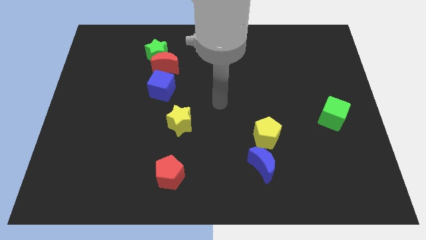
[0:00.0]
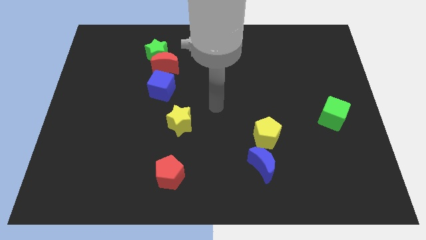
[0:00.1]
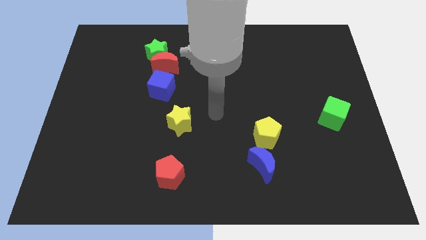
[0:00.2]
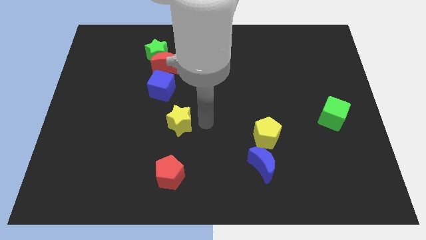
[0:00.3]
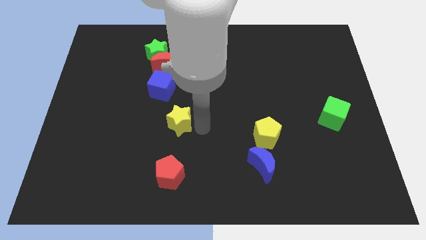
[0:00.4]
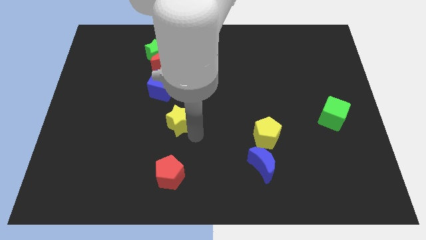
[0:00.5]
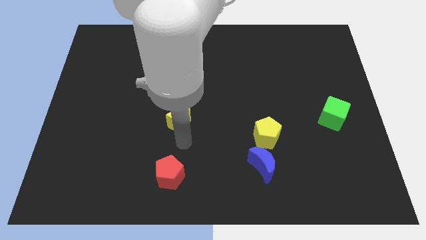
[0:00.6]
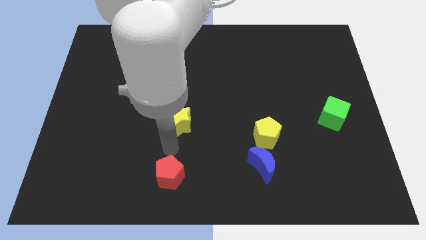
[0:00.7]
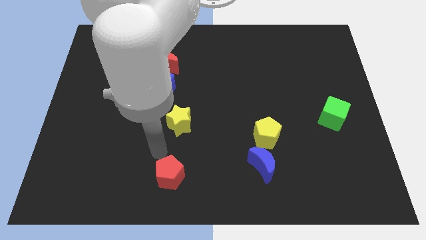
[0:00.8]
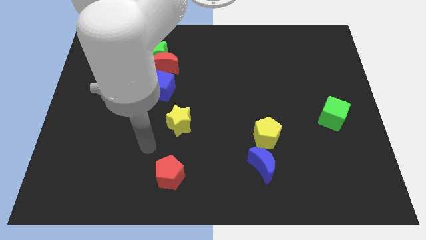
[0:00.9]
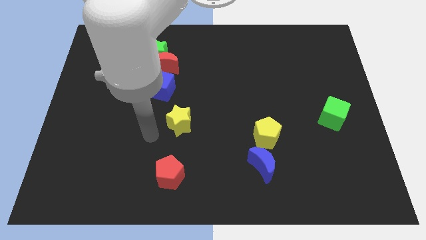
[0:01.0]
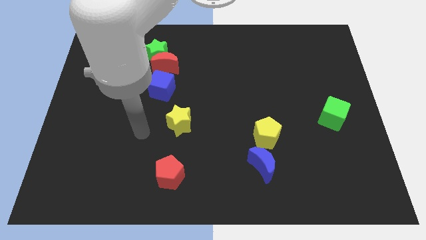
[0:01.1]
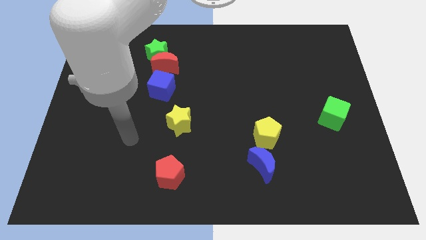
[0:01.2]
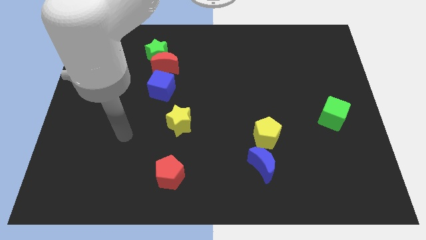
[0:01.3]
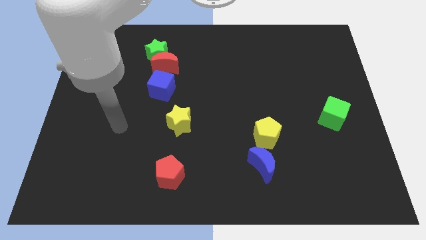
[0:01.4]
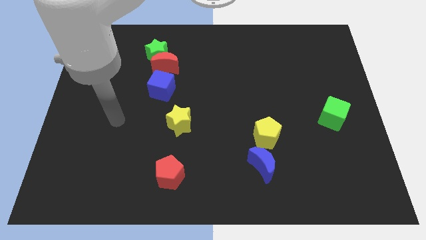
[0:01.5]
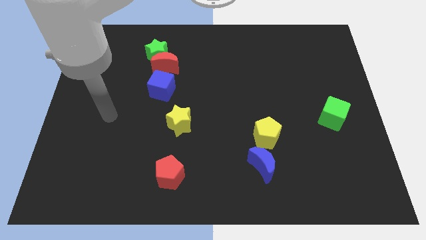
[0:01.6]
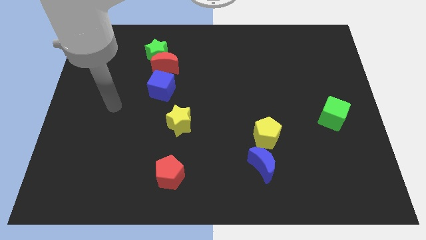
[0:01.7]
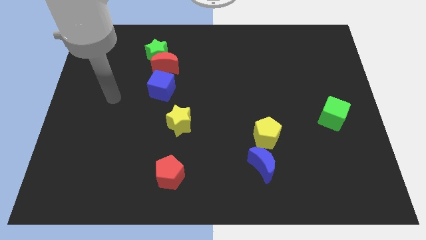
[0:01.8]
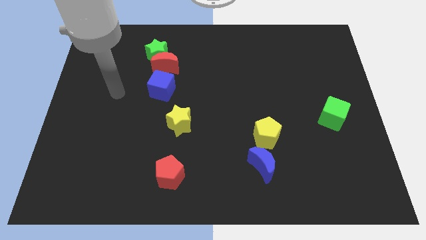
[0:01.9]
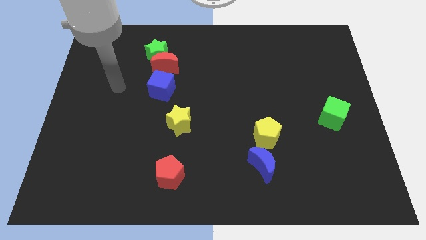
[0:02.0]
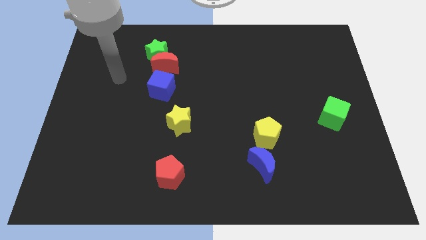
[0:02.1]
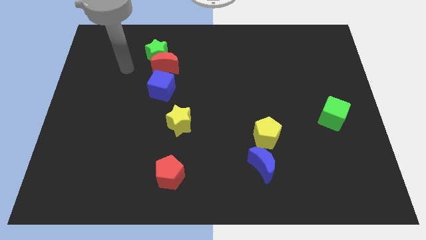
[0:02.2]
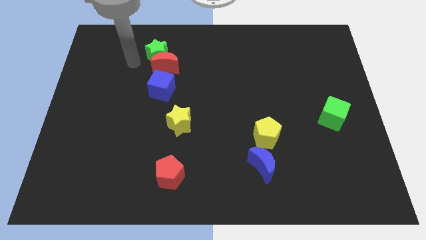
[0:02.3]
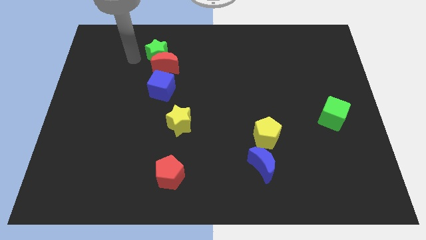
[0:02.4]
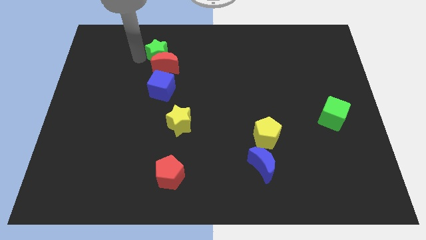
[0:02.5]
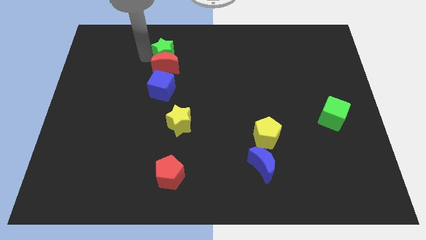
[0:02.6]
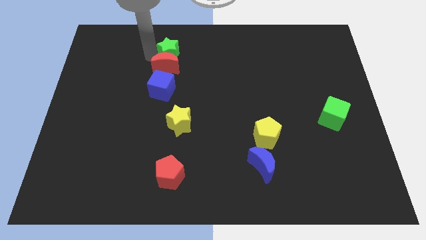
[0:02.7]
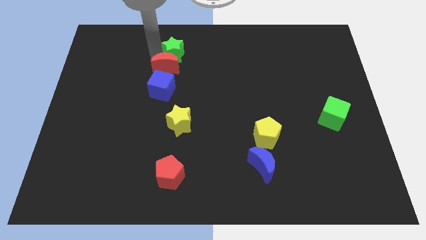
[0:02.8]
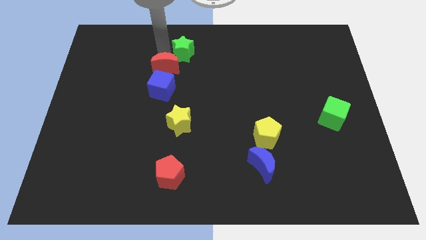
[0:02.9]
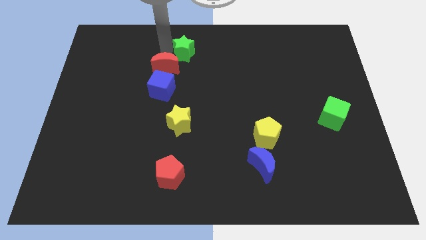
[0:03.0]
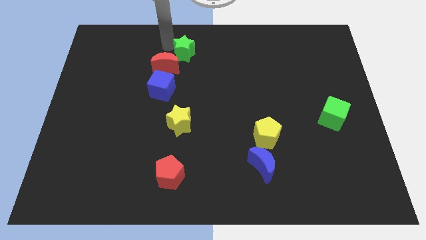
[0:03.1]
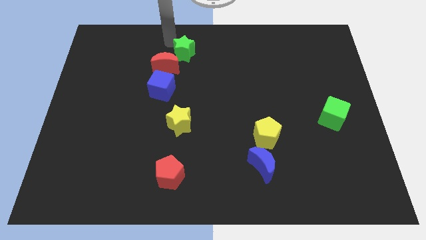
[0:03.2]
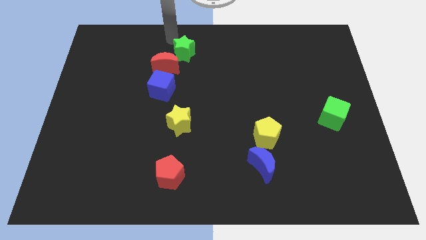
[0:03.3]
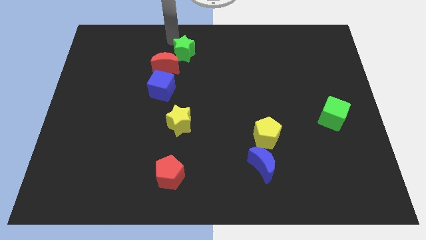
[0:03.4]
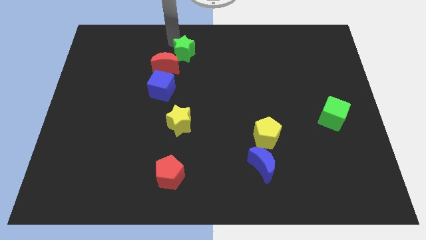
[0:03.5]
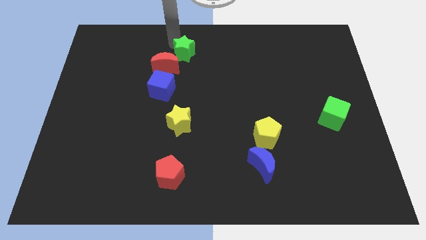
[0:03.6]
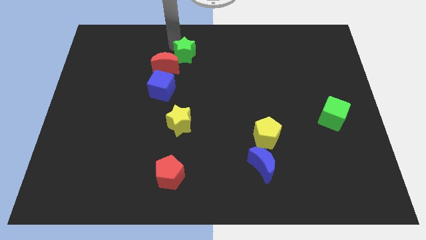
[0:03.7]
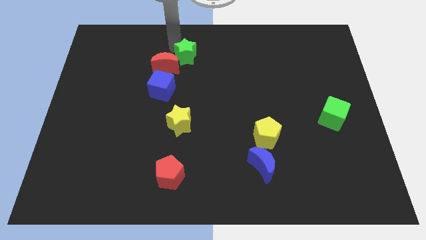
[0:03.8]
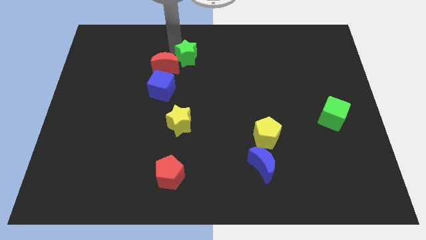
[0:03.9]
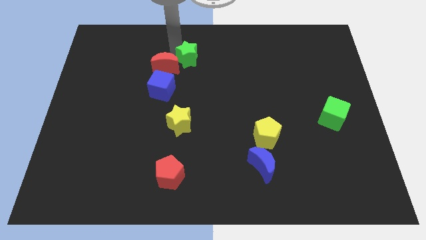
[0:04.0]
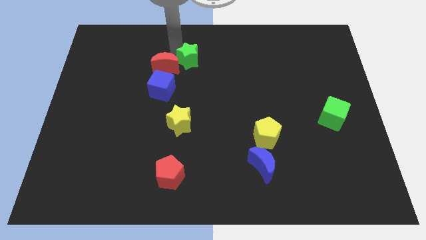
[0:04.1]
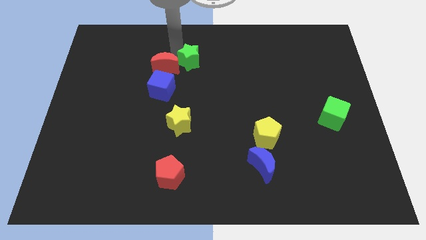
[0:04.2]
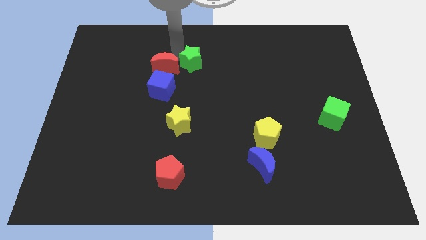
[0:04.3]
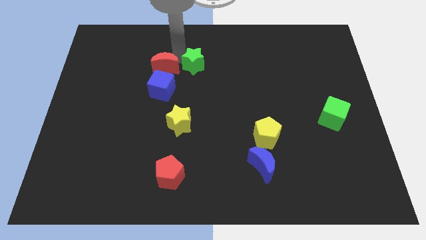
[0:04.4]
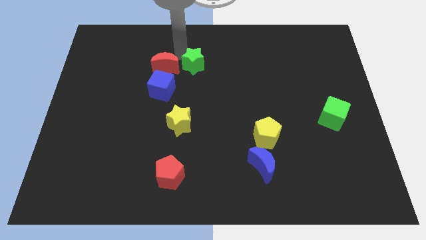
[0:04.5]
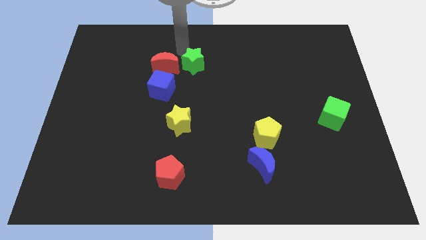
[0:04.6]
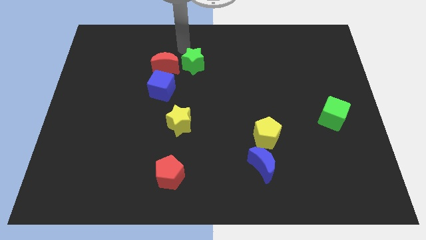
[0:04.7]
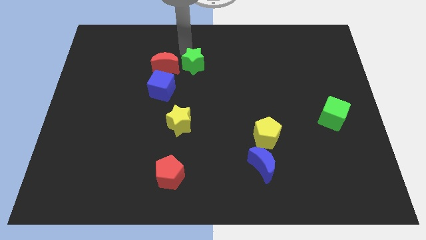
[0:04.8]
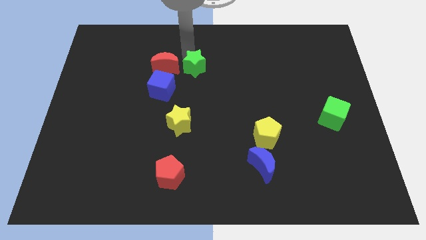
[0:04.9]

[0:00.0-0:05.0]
slide the green star to the middle of the board
